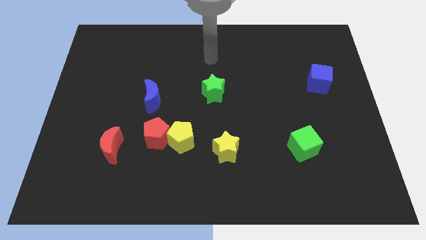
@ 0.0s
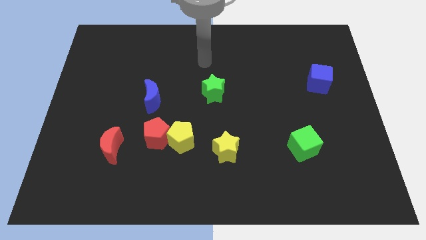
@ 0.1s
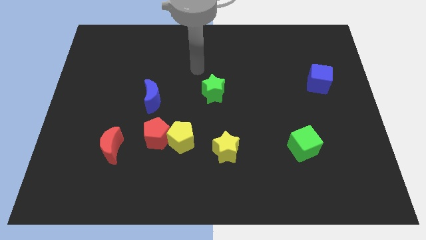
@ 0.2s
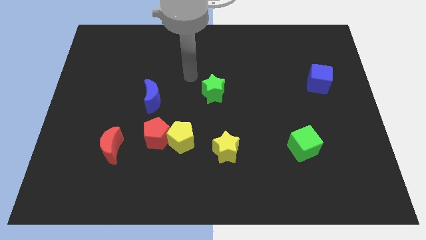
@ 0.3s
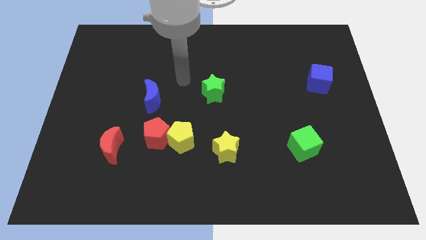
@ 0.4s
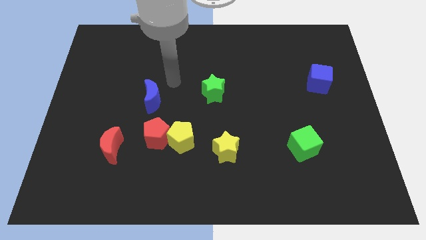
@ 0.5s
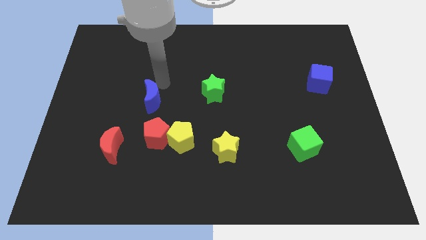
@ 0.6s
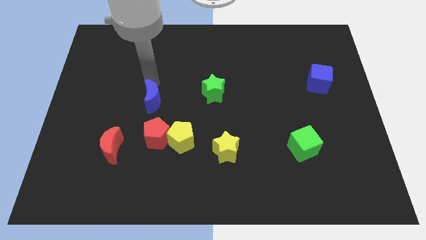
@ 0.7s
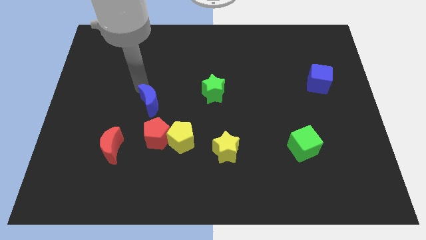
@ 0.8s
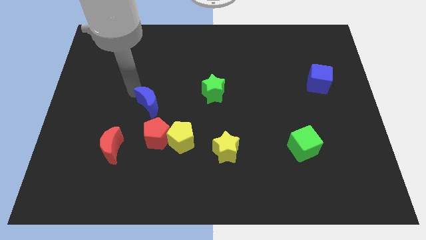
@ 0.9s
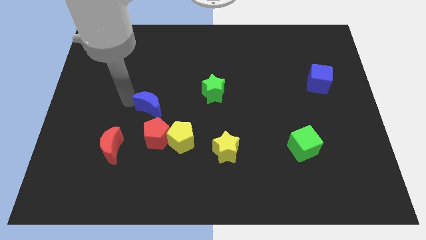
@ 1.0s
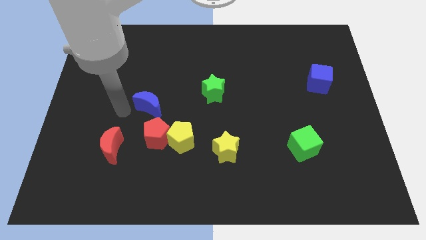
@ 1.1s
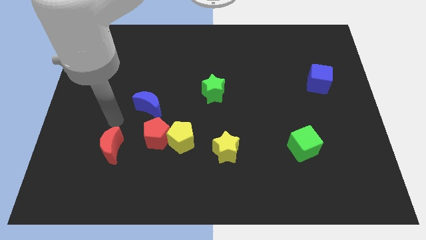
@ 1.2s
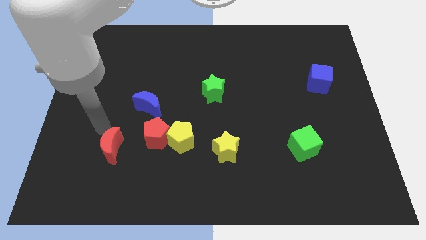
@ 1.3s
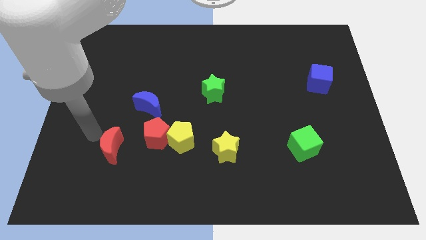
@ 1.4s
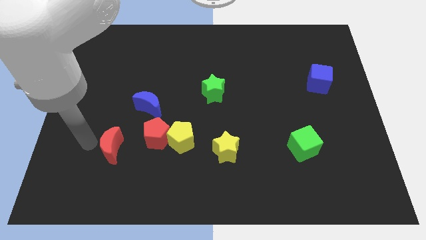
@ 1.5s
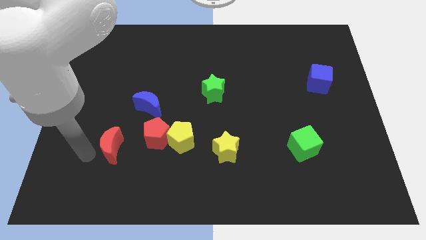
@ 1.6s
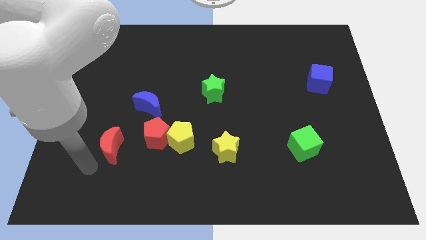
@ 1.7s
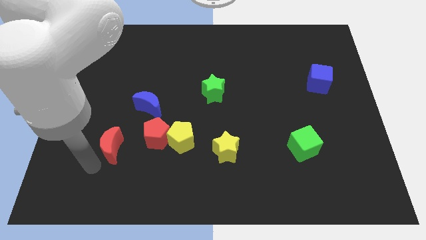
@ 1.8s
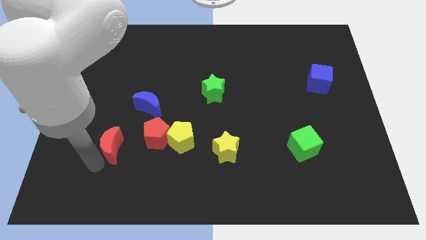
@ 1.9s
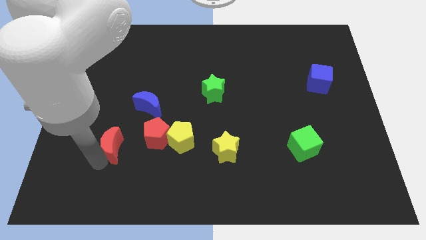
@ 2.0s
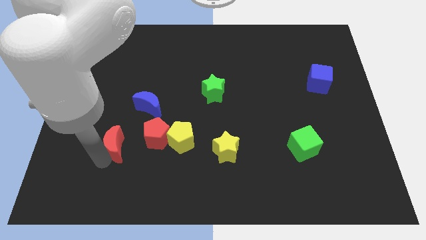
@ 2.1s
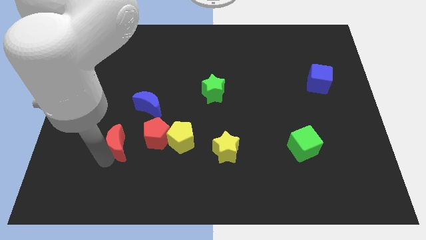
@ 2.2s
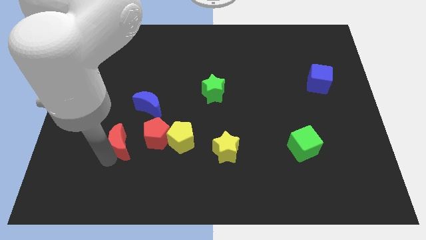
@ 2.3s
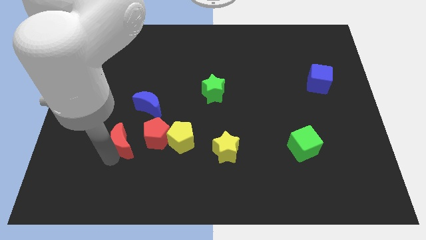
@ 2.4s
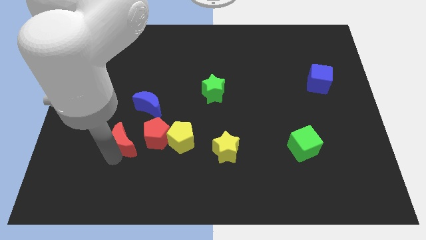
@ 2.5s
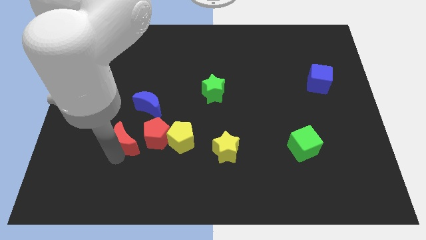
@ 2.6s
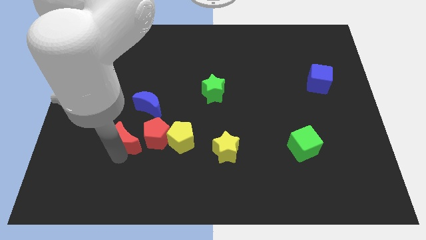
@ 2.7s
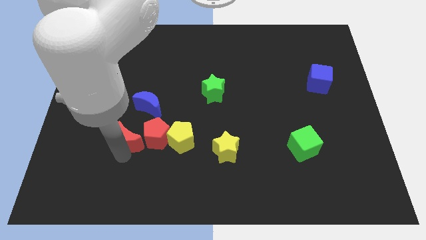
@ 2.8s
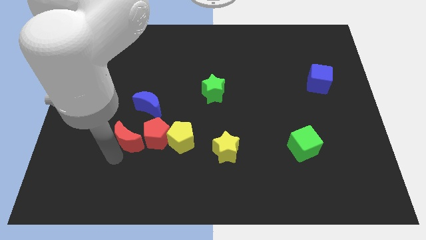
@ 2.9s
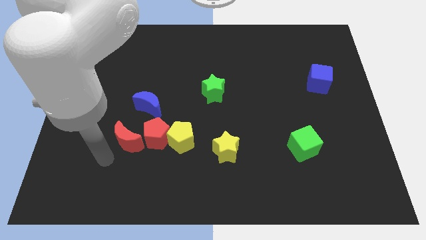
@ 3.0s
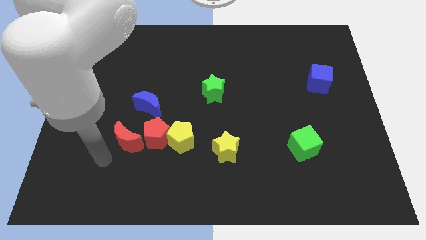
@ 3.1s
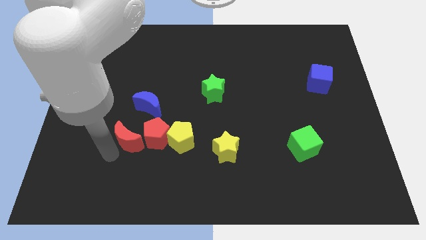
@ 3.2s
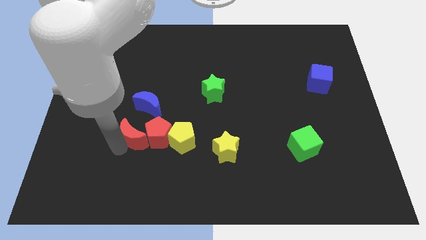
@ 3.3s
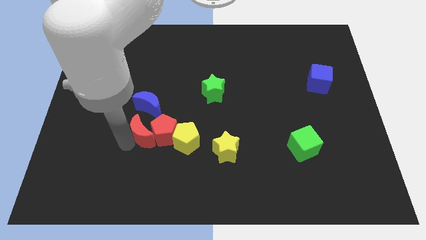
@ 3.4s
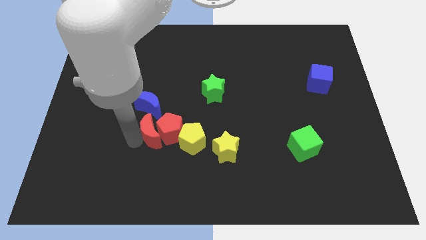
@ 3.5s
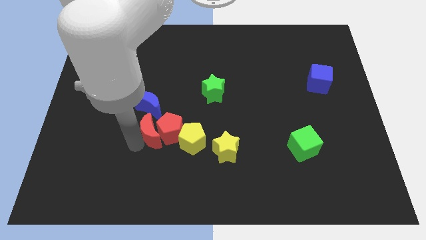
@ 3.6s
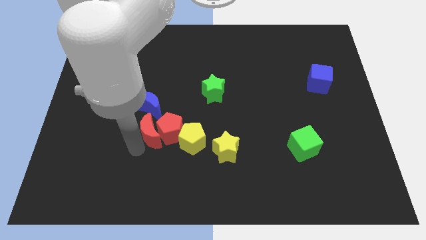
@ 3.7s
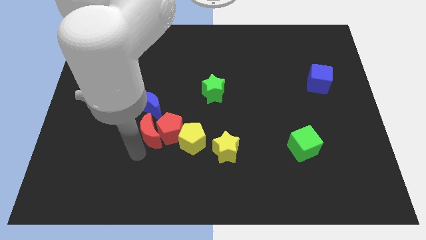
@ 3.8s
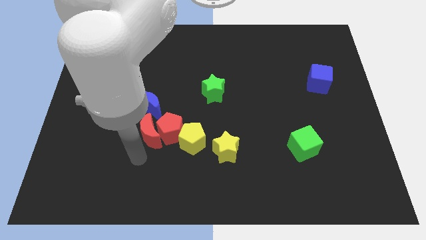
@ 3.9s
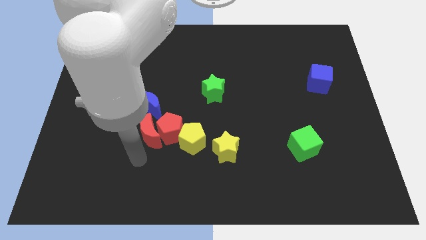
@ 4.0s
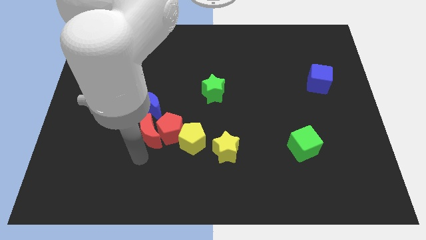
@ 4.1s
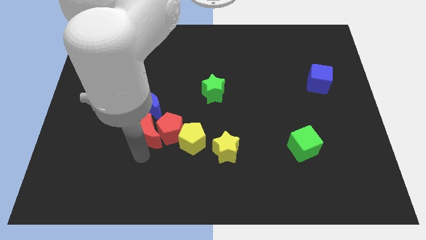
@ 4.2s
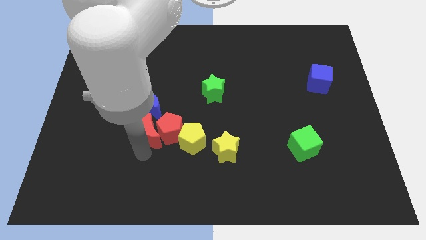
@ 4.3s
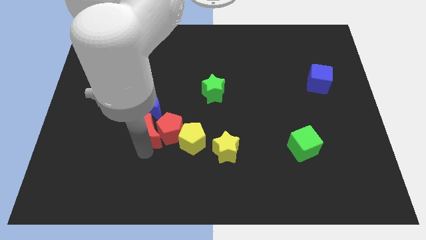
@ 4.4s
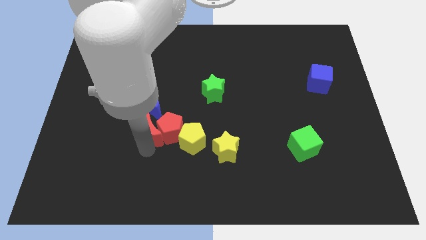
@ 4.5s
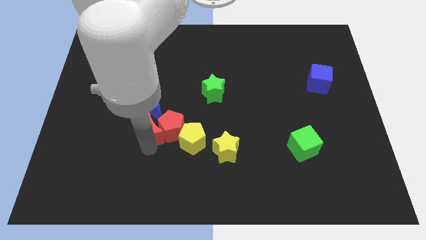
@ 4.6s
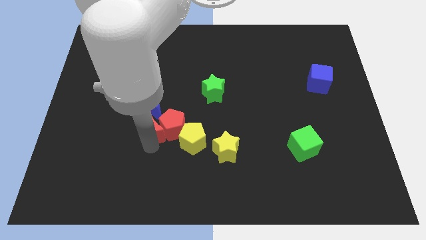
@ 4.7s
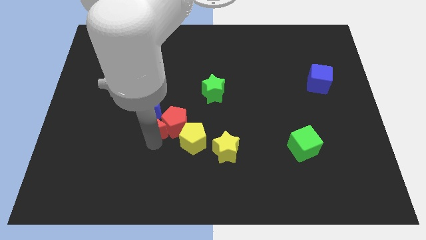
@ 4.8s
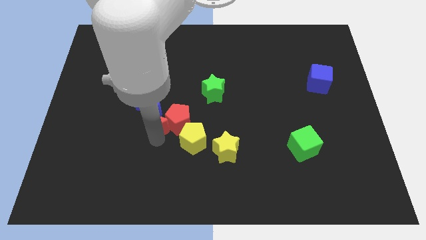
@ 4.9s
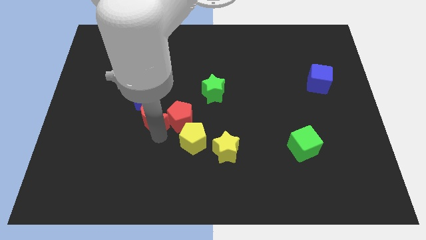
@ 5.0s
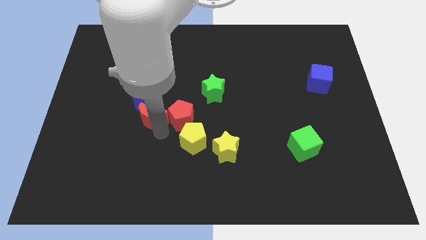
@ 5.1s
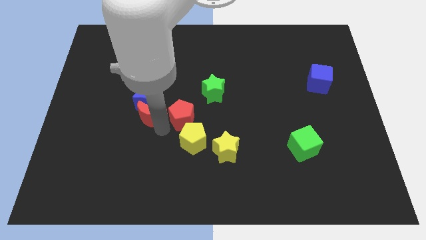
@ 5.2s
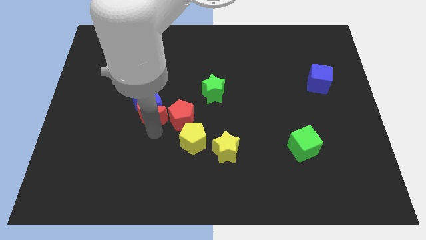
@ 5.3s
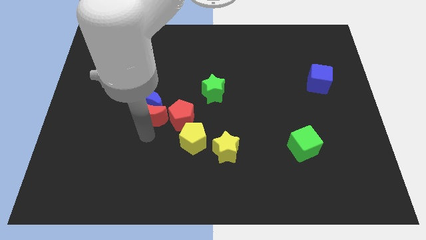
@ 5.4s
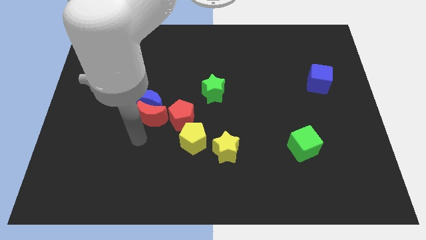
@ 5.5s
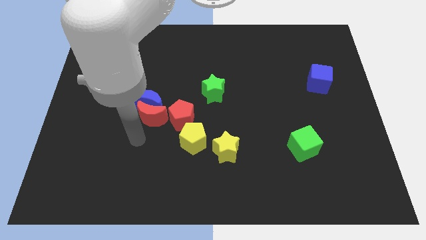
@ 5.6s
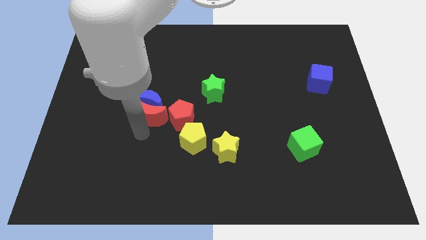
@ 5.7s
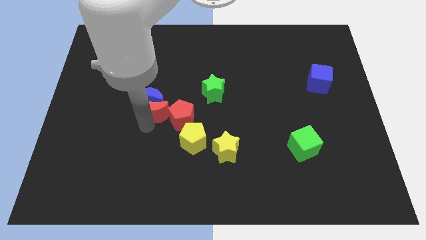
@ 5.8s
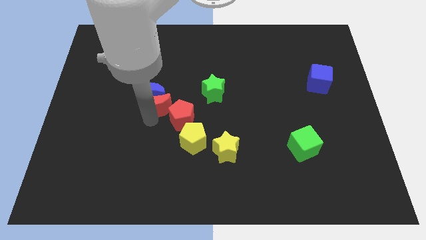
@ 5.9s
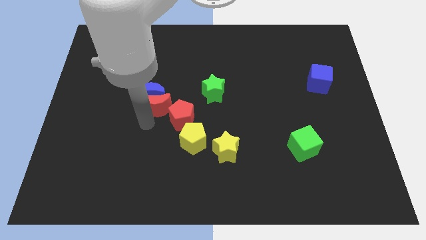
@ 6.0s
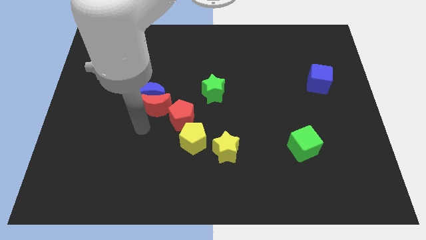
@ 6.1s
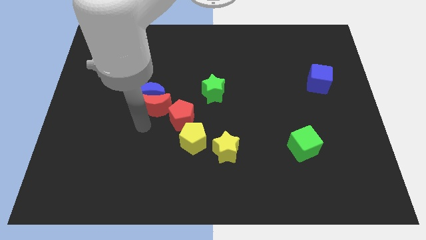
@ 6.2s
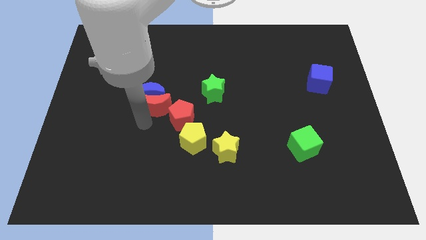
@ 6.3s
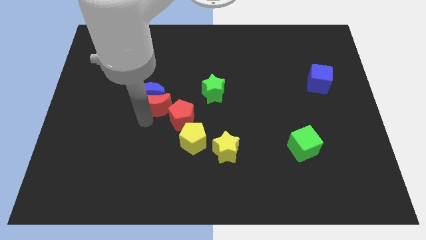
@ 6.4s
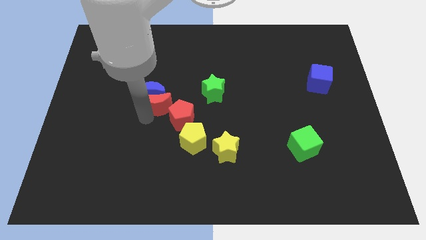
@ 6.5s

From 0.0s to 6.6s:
push the red moon left of the green star

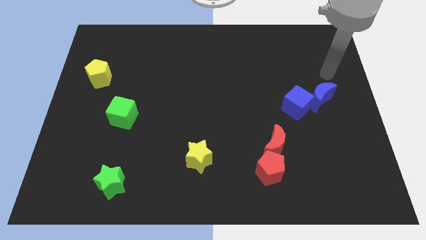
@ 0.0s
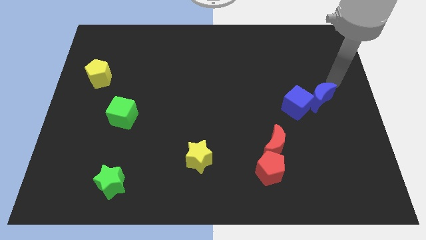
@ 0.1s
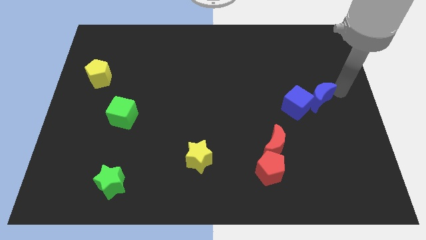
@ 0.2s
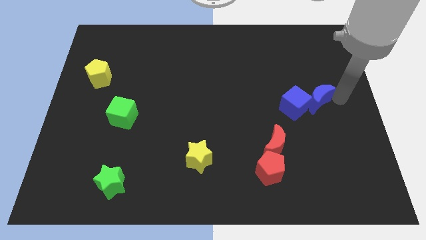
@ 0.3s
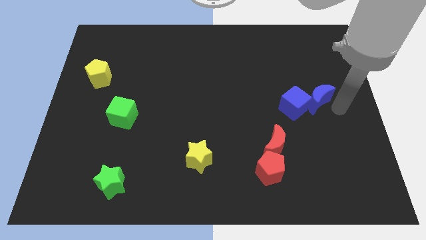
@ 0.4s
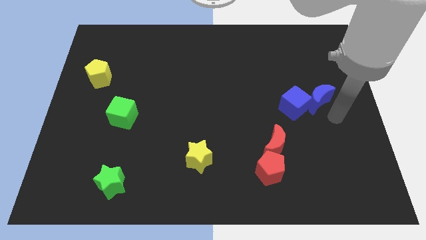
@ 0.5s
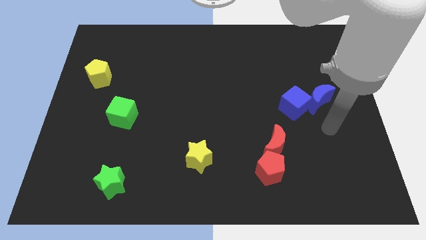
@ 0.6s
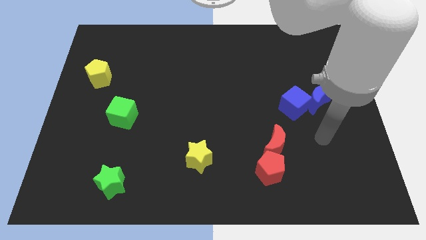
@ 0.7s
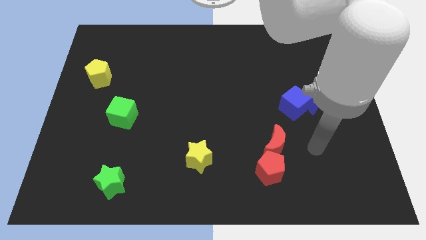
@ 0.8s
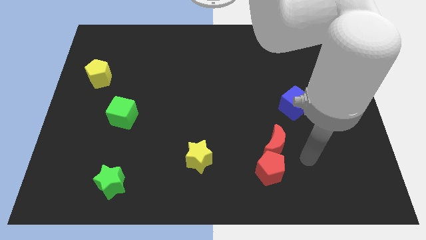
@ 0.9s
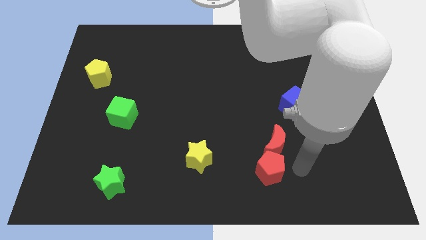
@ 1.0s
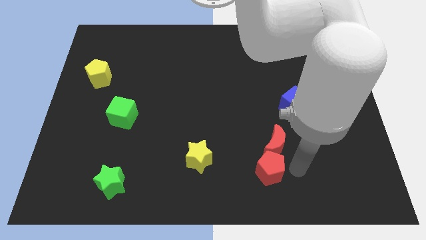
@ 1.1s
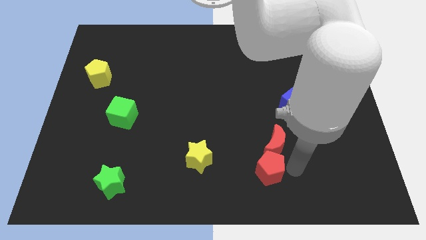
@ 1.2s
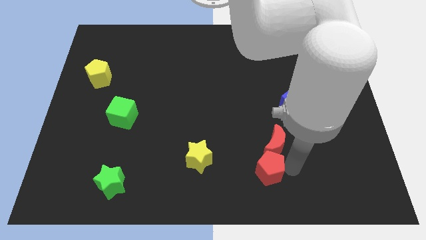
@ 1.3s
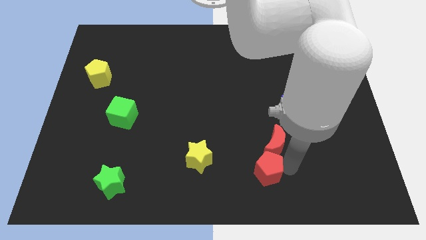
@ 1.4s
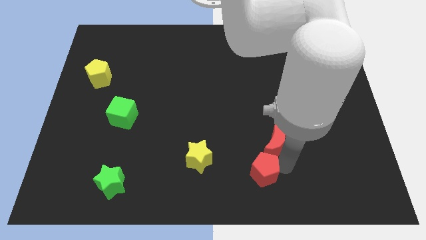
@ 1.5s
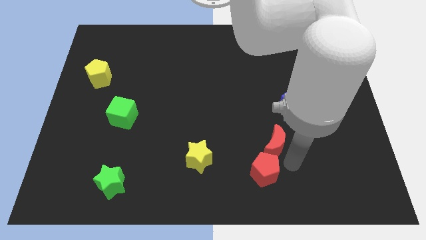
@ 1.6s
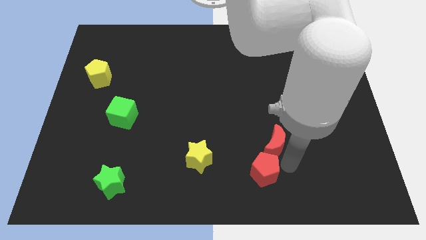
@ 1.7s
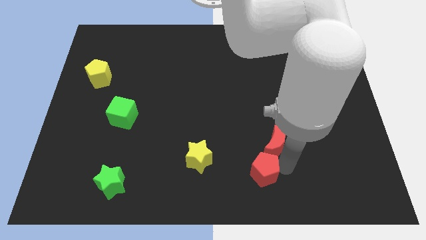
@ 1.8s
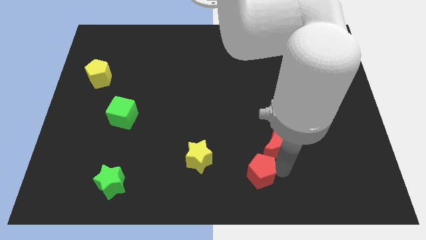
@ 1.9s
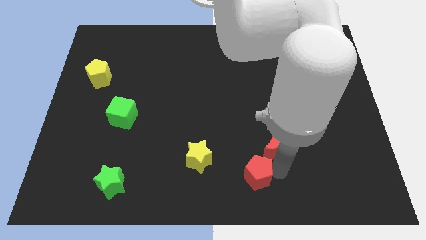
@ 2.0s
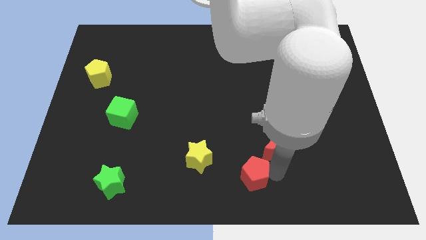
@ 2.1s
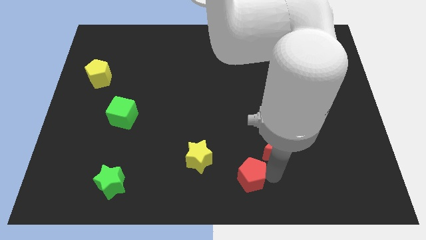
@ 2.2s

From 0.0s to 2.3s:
push the red pentagon to the bottom right side of the yellow star
